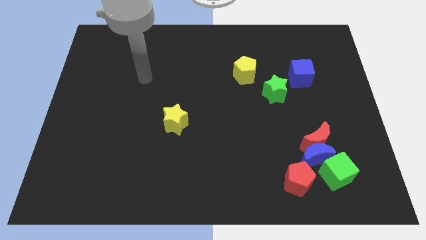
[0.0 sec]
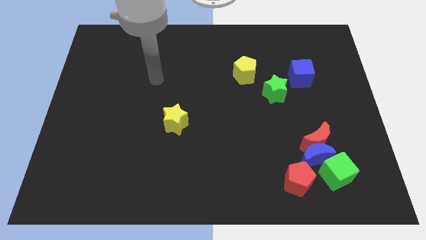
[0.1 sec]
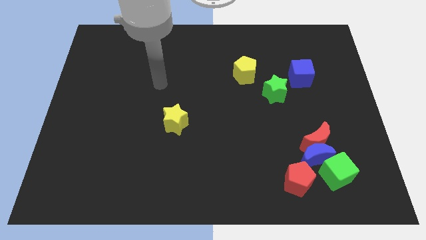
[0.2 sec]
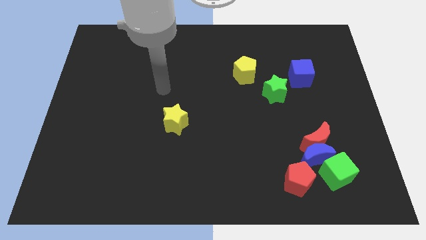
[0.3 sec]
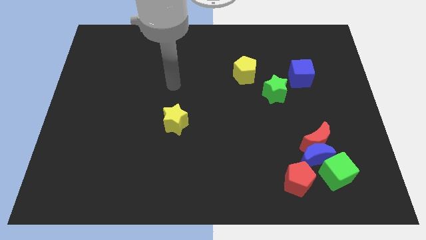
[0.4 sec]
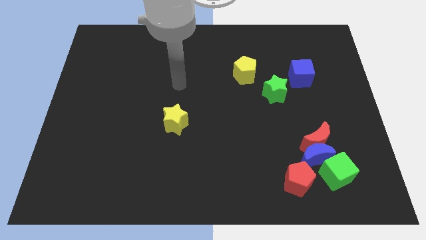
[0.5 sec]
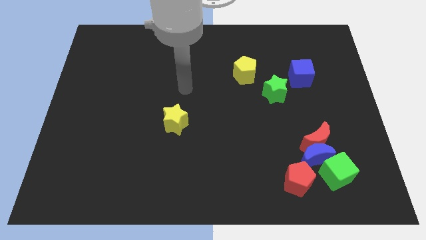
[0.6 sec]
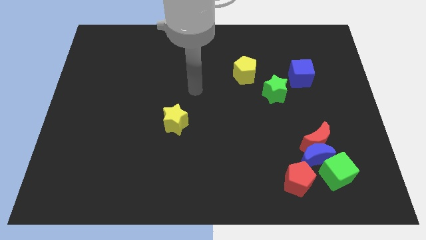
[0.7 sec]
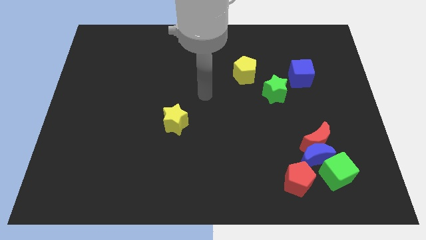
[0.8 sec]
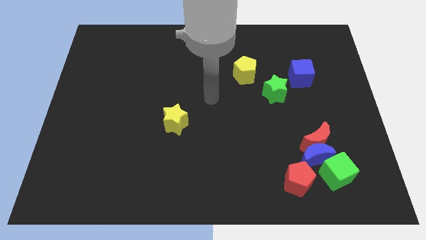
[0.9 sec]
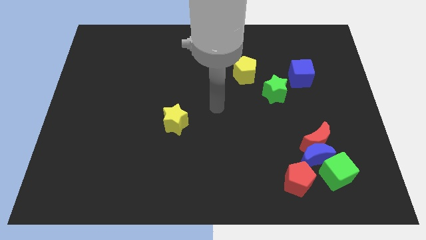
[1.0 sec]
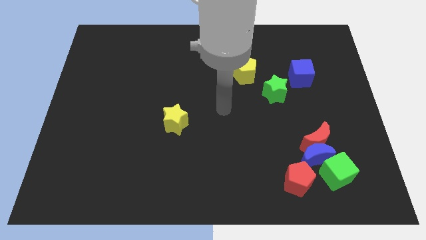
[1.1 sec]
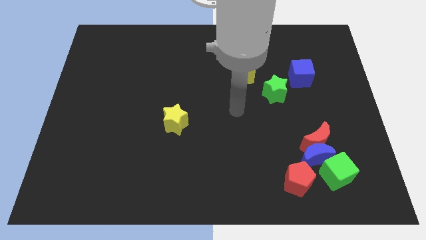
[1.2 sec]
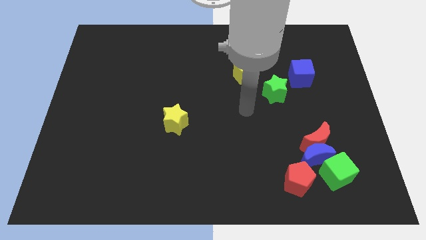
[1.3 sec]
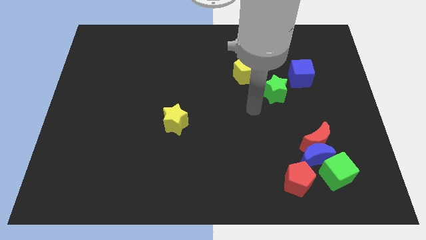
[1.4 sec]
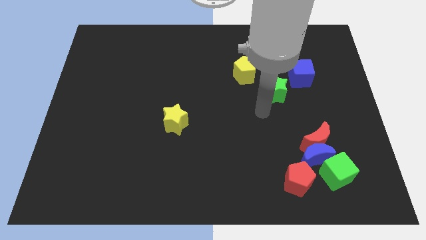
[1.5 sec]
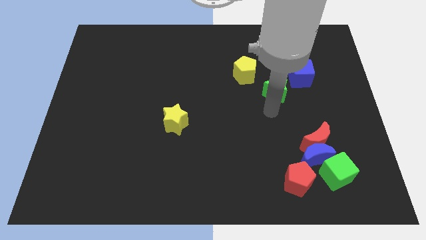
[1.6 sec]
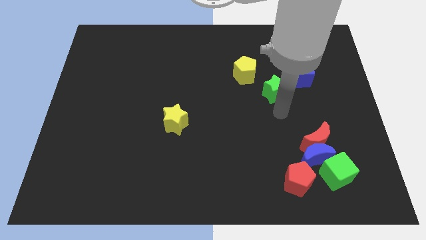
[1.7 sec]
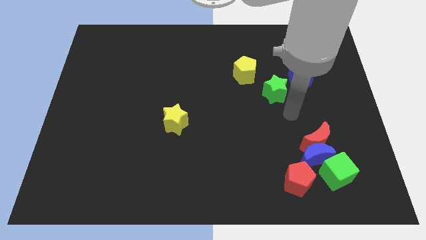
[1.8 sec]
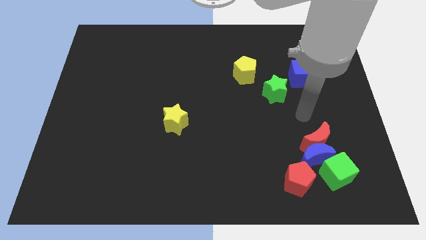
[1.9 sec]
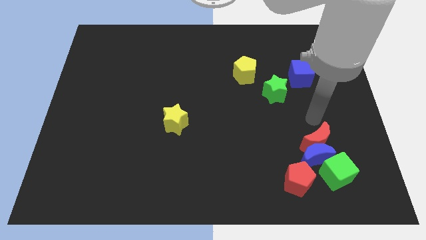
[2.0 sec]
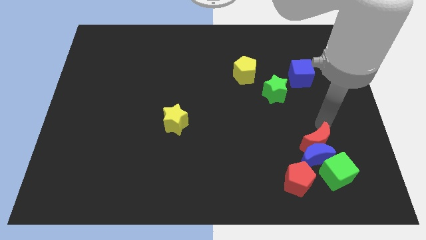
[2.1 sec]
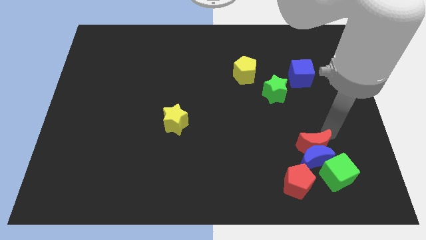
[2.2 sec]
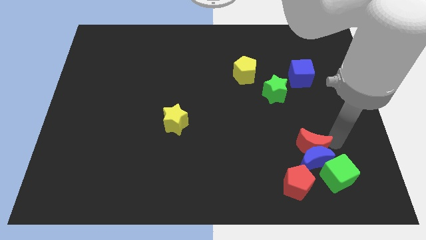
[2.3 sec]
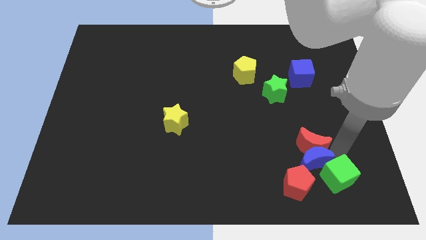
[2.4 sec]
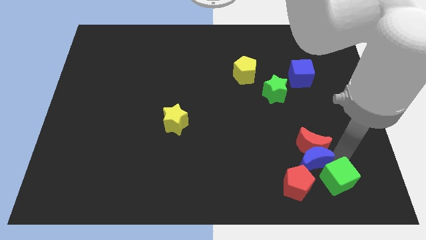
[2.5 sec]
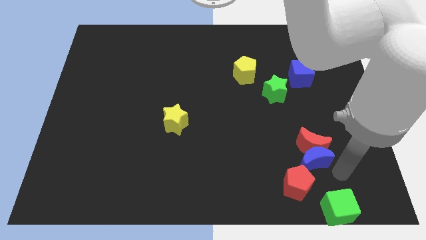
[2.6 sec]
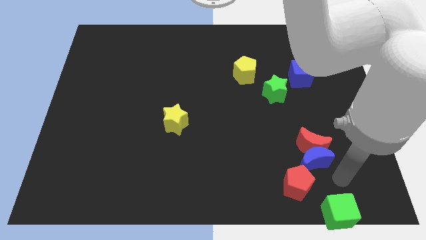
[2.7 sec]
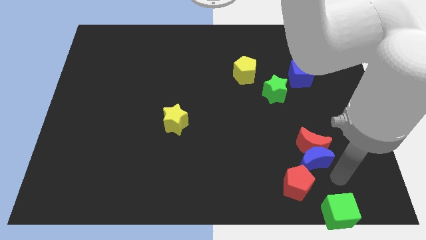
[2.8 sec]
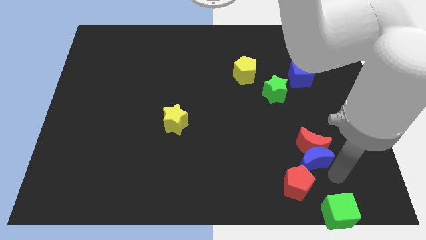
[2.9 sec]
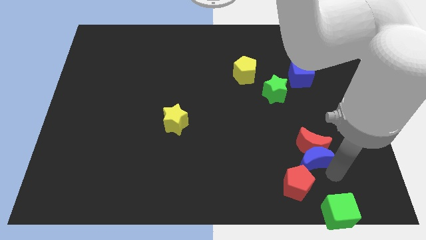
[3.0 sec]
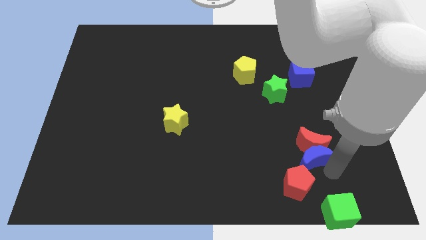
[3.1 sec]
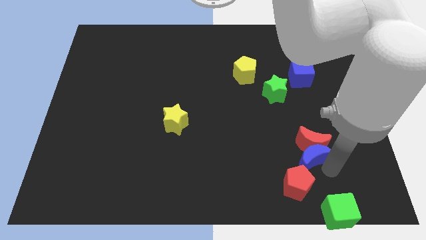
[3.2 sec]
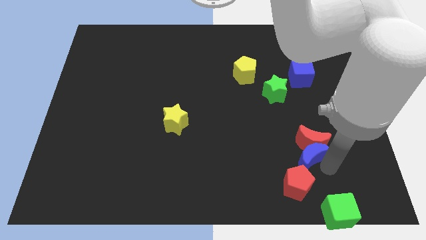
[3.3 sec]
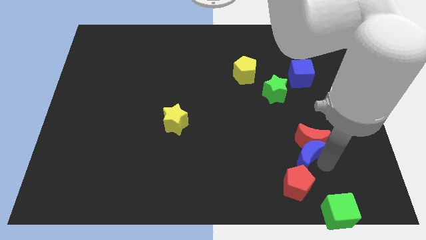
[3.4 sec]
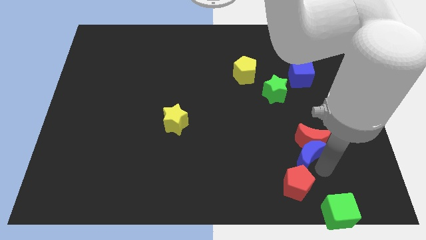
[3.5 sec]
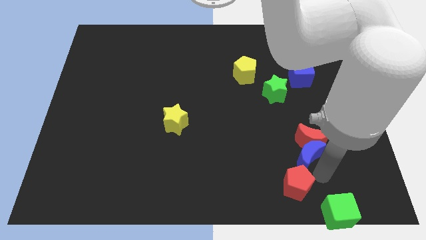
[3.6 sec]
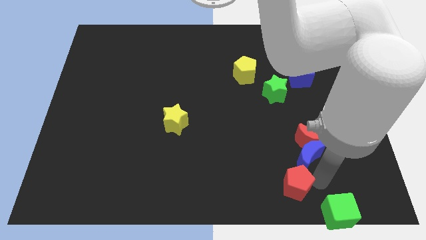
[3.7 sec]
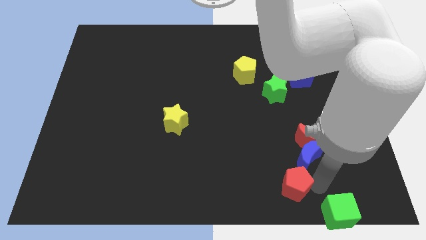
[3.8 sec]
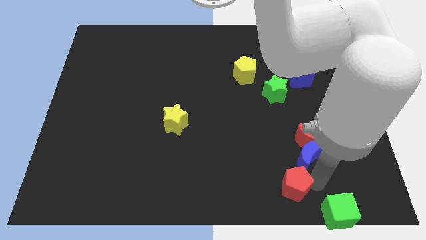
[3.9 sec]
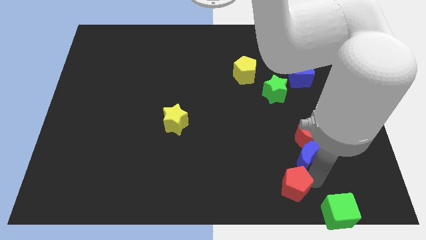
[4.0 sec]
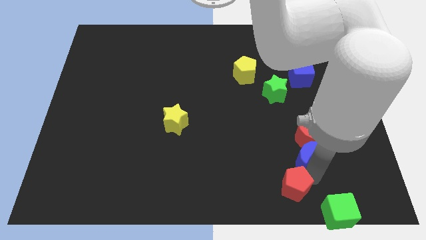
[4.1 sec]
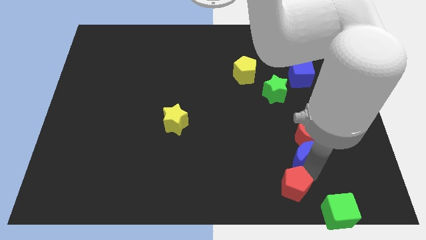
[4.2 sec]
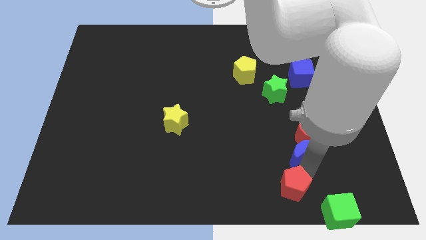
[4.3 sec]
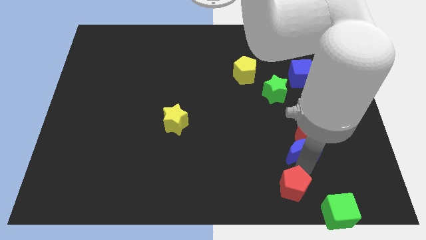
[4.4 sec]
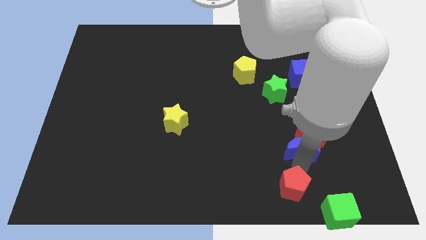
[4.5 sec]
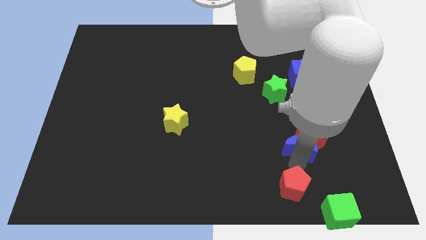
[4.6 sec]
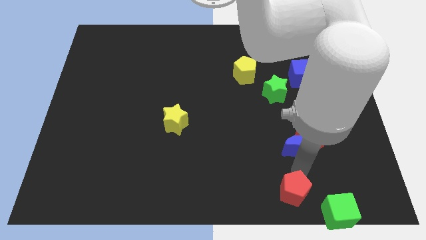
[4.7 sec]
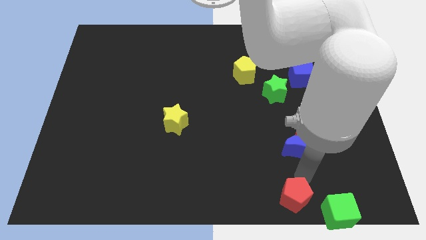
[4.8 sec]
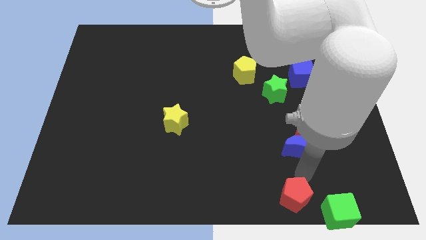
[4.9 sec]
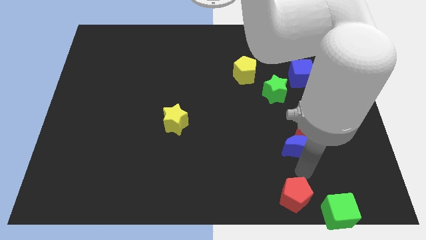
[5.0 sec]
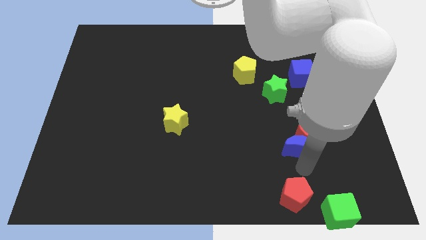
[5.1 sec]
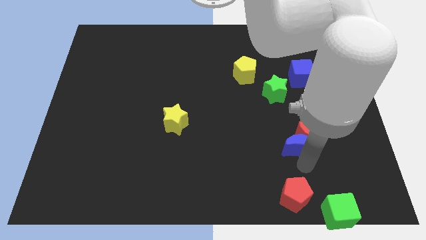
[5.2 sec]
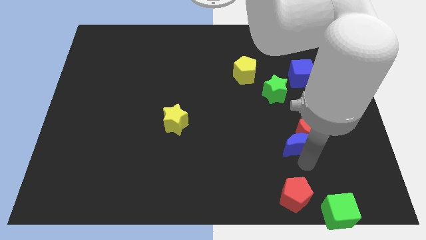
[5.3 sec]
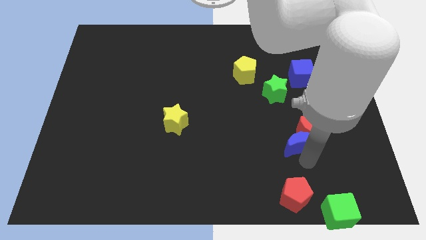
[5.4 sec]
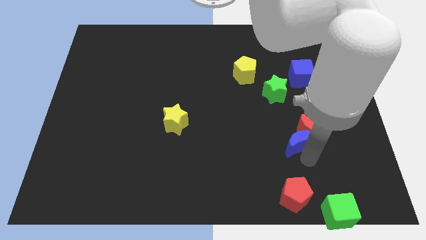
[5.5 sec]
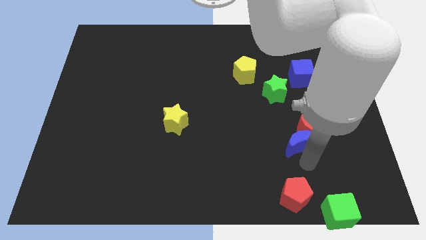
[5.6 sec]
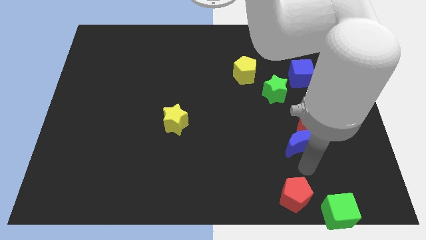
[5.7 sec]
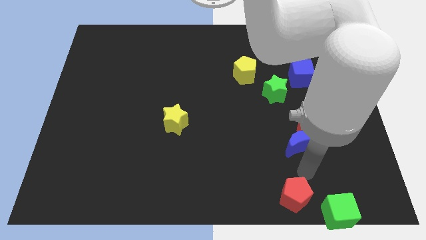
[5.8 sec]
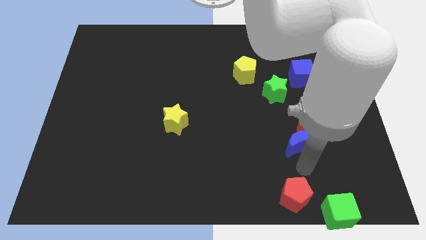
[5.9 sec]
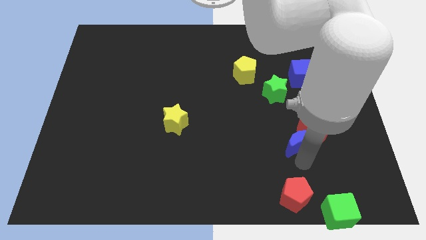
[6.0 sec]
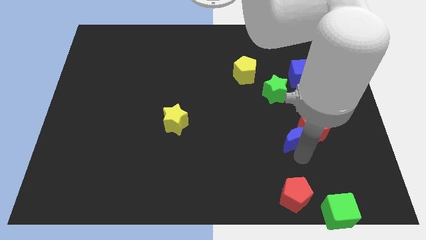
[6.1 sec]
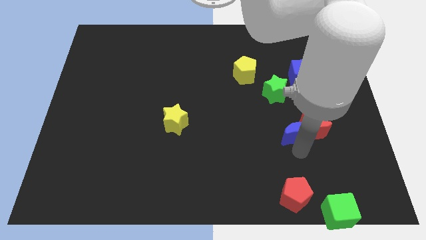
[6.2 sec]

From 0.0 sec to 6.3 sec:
pull the blue moon apart from the red moon, green cube, and red pentagon

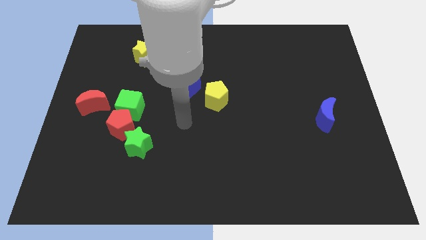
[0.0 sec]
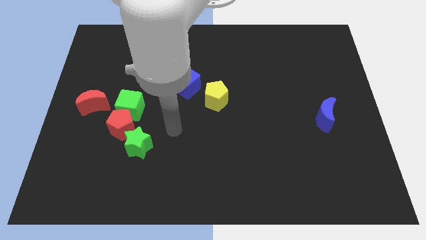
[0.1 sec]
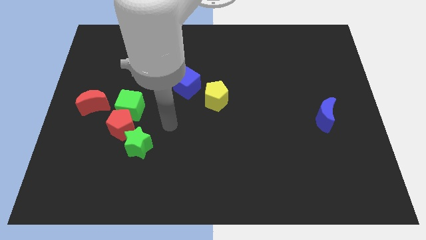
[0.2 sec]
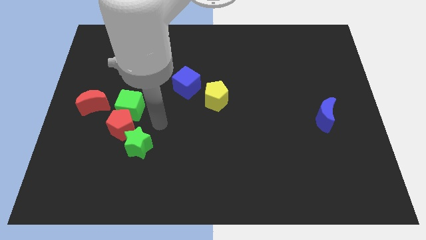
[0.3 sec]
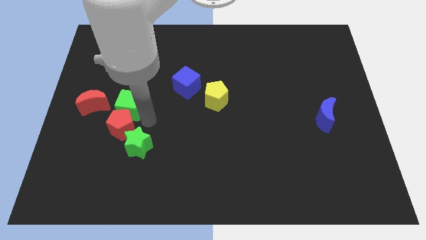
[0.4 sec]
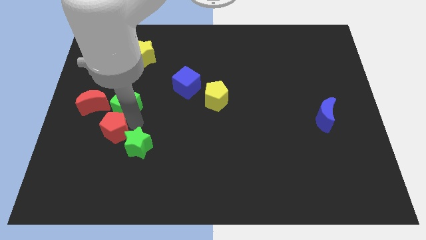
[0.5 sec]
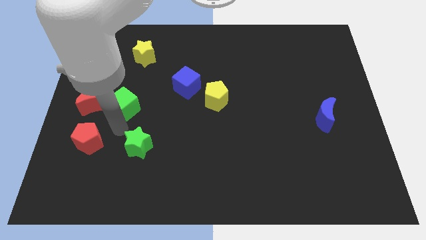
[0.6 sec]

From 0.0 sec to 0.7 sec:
pull the green star apart from the red pentagon

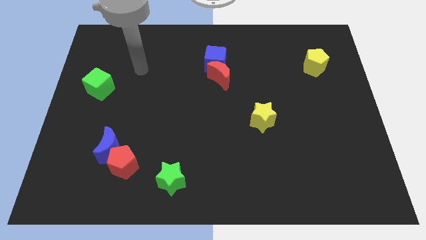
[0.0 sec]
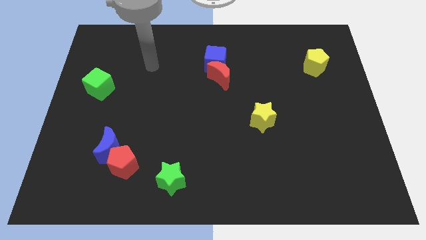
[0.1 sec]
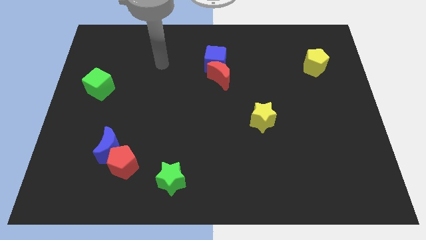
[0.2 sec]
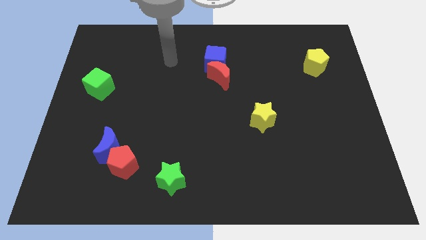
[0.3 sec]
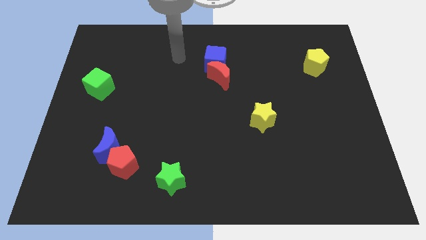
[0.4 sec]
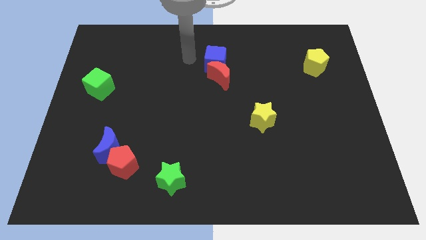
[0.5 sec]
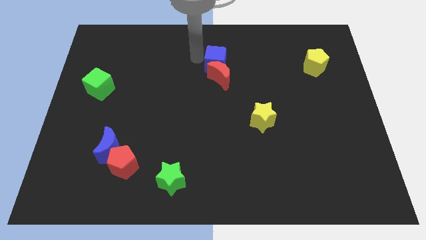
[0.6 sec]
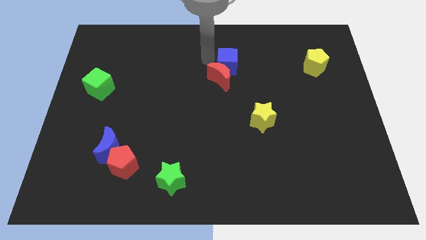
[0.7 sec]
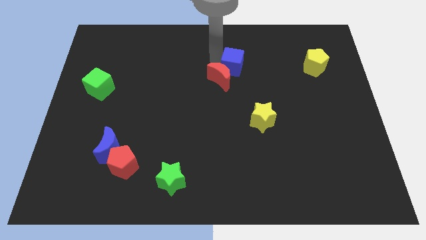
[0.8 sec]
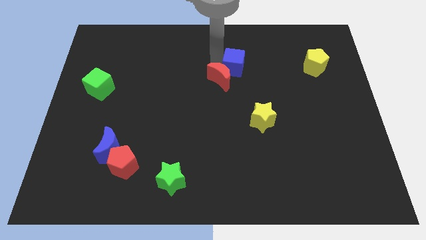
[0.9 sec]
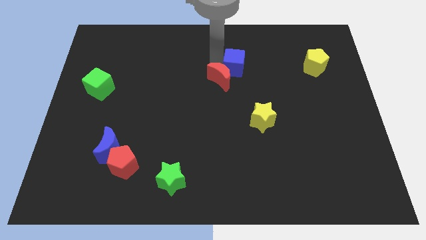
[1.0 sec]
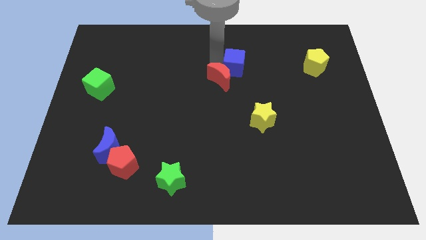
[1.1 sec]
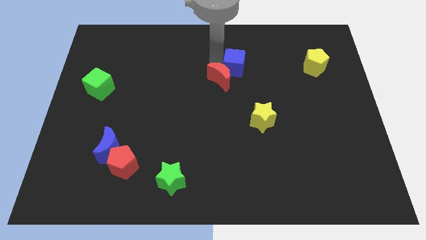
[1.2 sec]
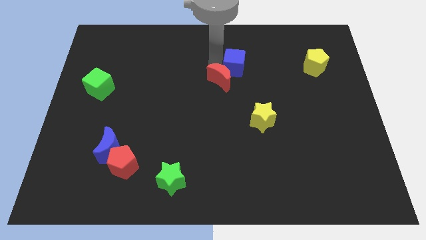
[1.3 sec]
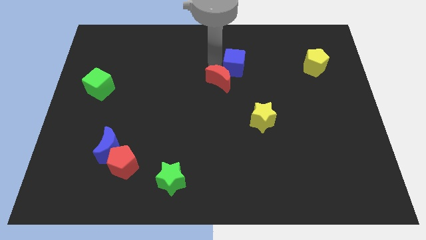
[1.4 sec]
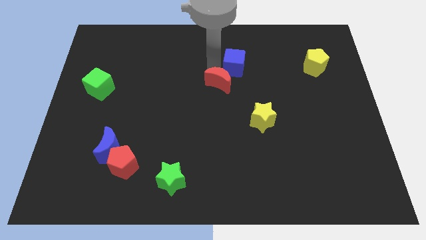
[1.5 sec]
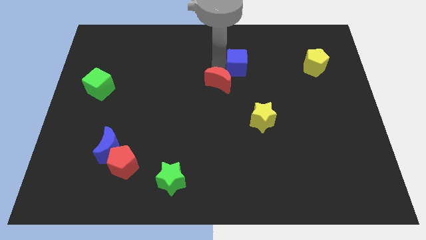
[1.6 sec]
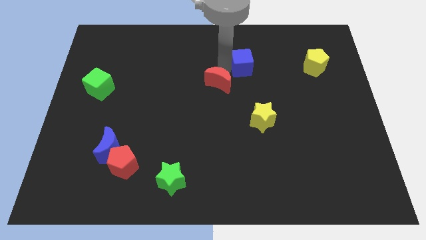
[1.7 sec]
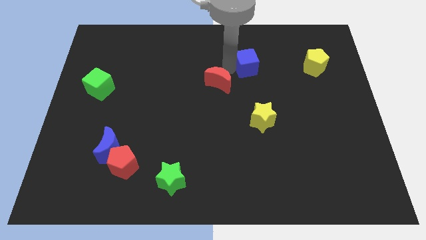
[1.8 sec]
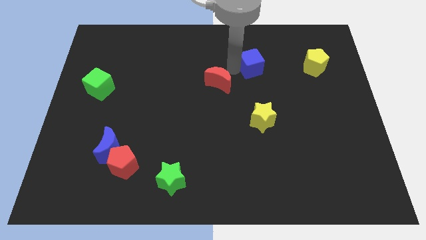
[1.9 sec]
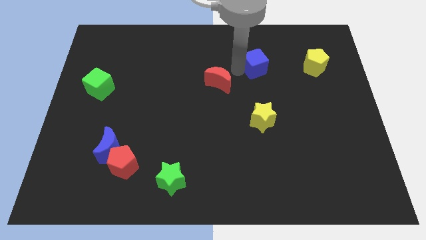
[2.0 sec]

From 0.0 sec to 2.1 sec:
move the red moon away from the blue cube

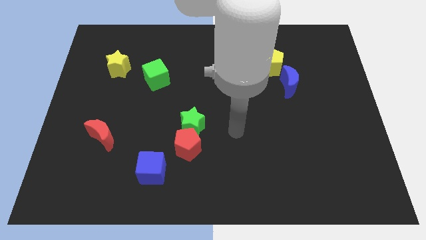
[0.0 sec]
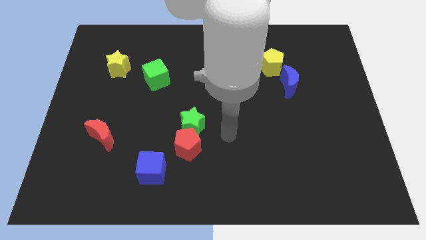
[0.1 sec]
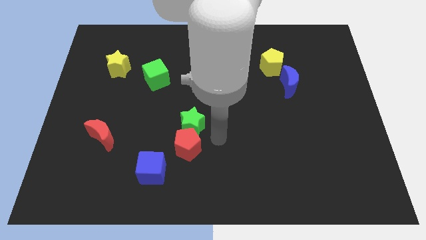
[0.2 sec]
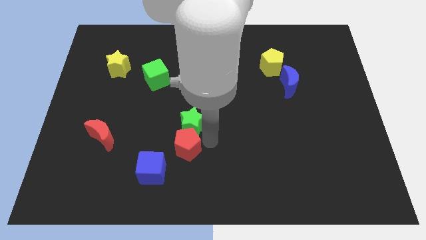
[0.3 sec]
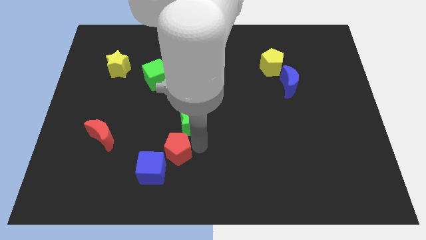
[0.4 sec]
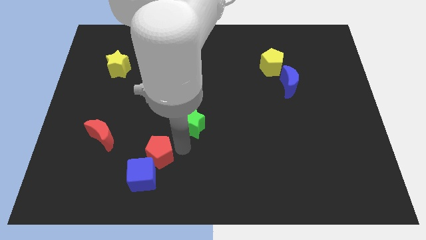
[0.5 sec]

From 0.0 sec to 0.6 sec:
move the green star away from the red pentagon
